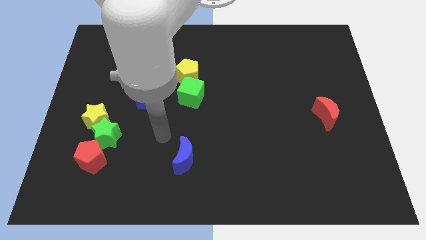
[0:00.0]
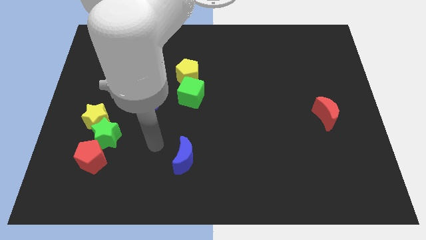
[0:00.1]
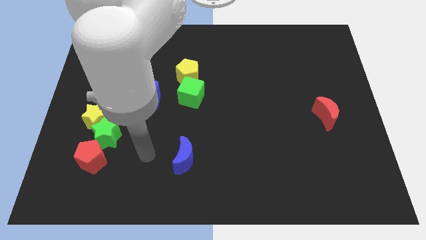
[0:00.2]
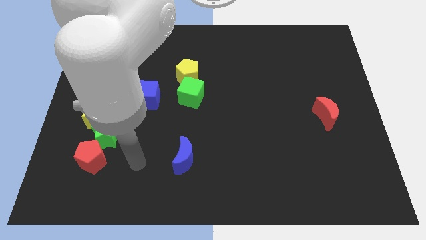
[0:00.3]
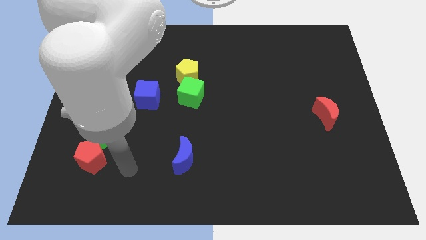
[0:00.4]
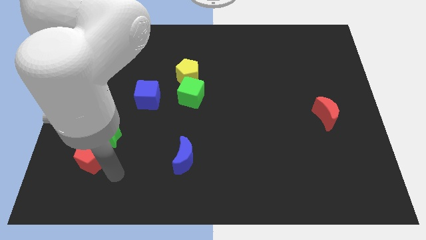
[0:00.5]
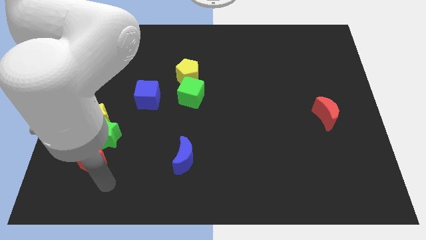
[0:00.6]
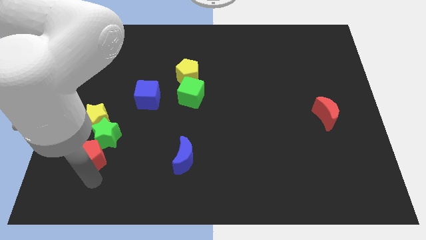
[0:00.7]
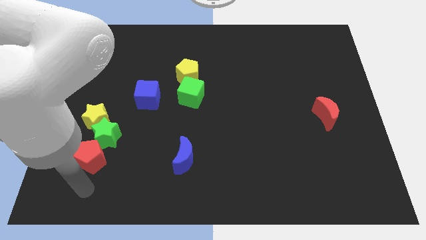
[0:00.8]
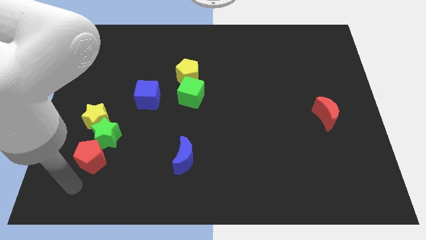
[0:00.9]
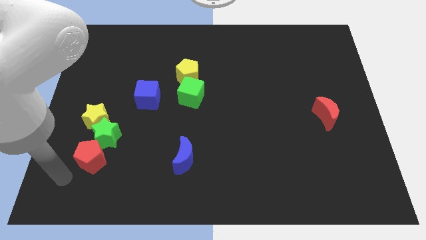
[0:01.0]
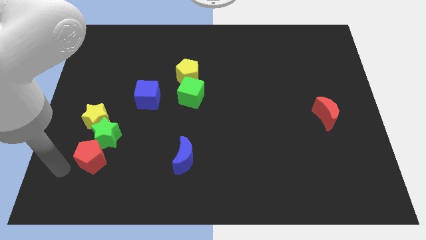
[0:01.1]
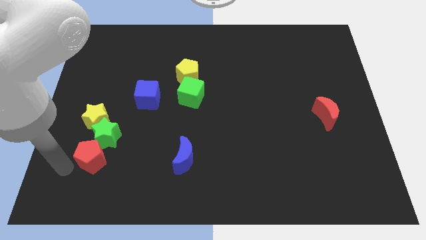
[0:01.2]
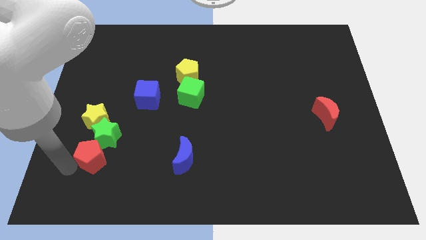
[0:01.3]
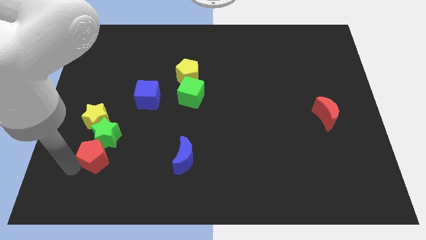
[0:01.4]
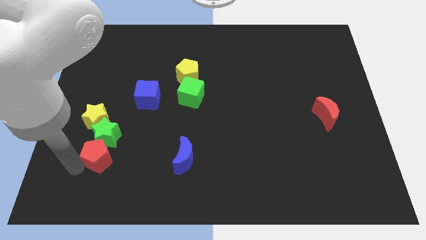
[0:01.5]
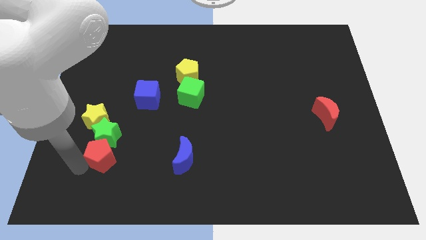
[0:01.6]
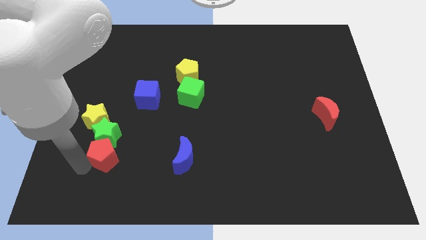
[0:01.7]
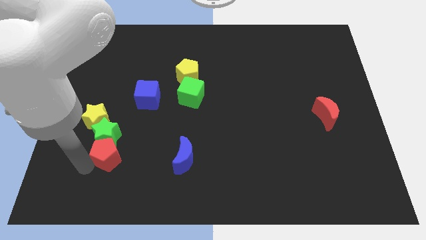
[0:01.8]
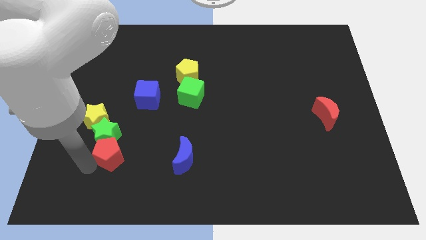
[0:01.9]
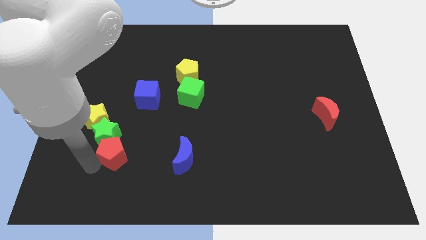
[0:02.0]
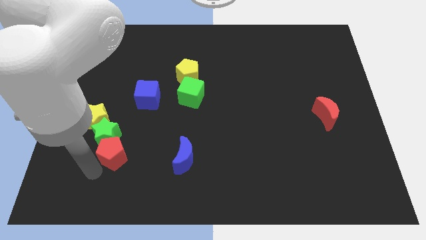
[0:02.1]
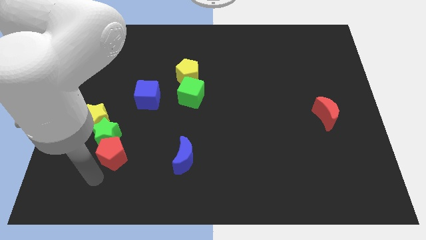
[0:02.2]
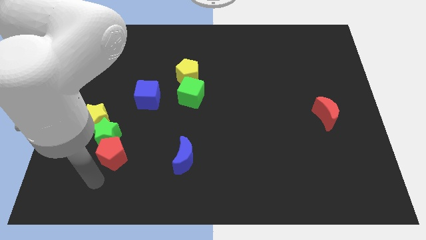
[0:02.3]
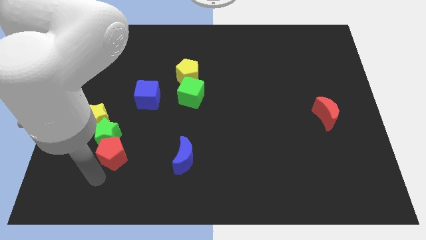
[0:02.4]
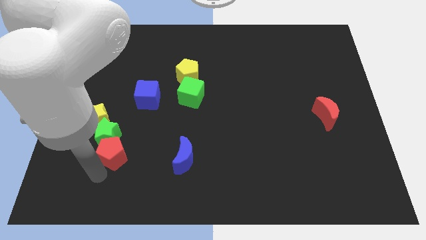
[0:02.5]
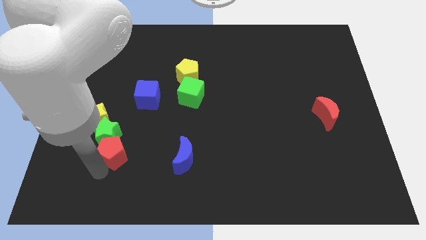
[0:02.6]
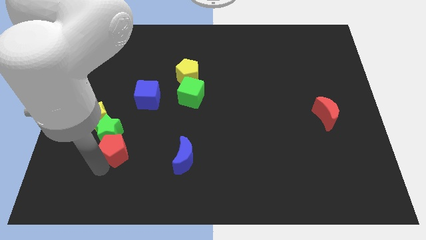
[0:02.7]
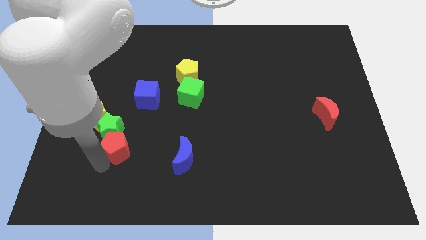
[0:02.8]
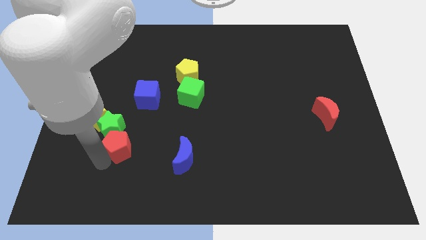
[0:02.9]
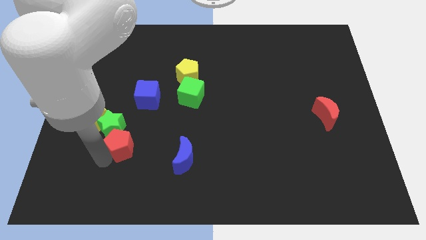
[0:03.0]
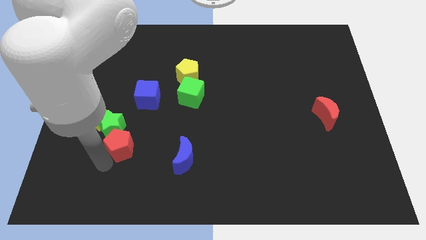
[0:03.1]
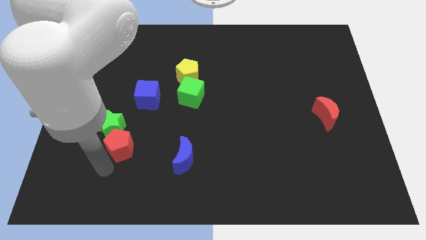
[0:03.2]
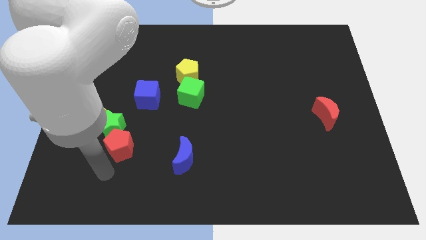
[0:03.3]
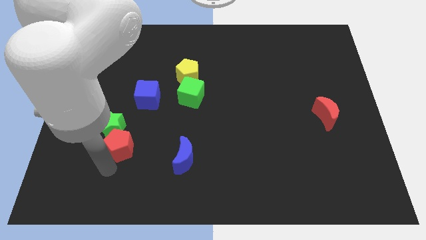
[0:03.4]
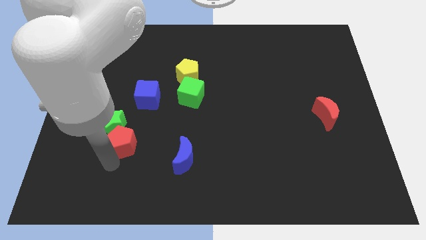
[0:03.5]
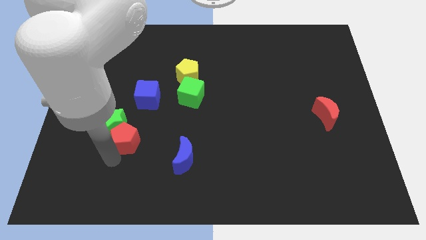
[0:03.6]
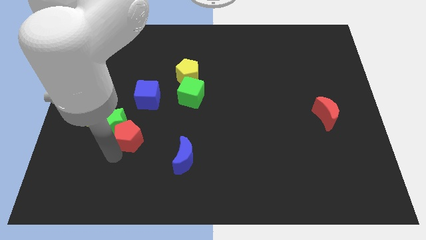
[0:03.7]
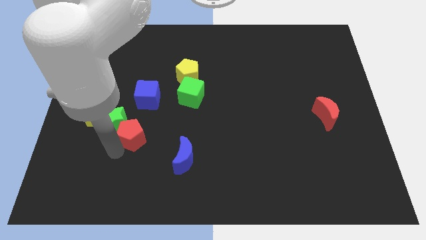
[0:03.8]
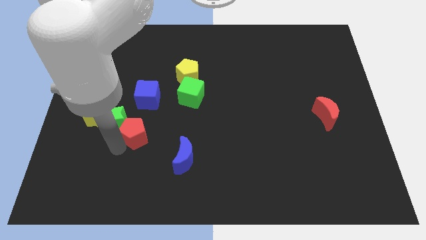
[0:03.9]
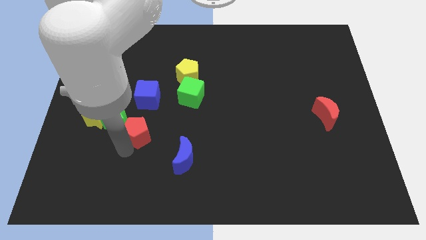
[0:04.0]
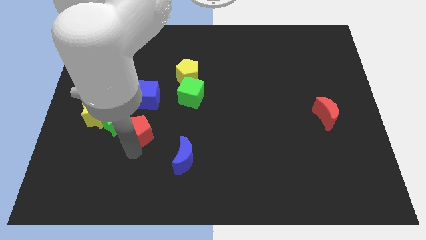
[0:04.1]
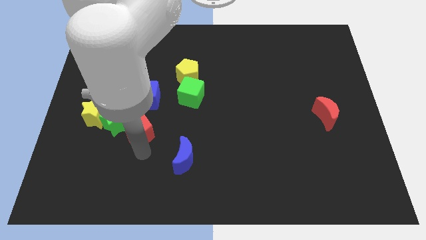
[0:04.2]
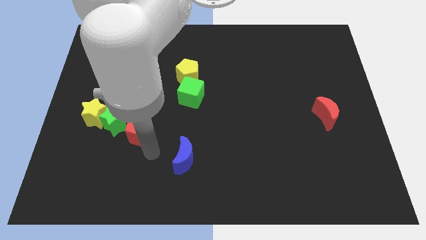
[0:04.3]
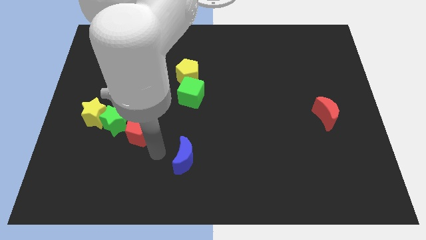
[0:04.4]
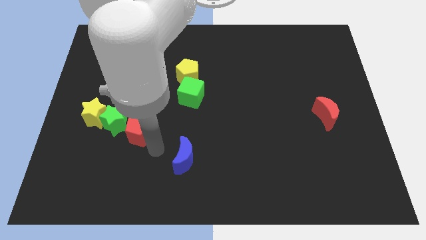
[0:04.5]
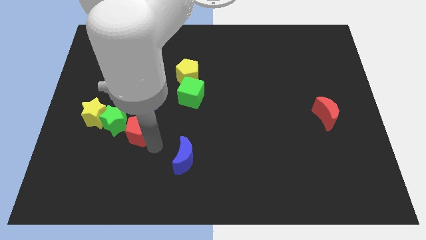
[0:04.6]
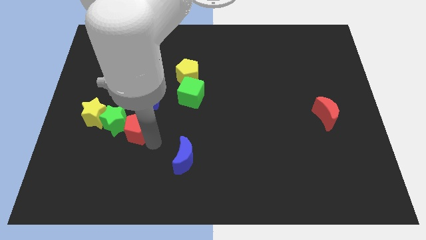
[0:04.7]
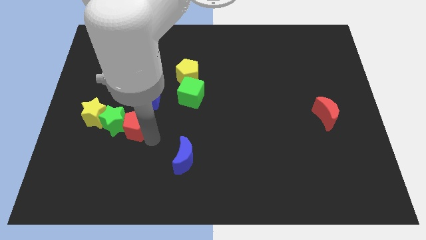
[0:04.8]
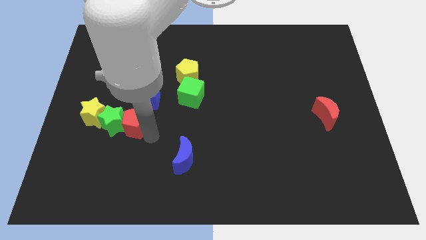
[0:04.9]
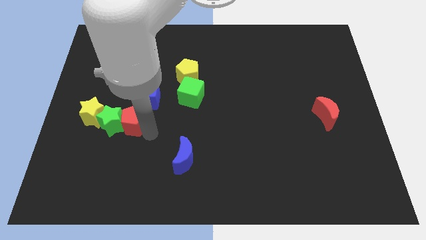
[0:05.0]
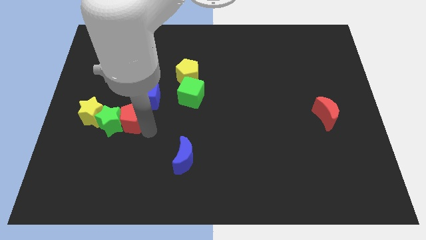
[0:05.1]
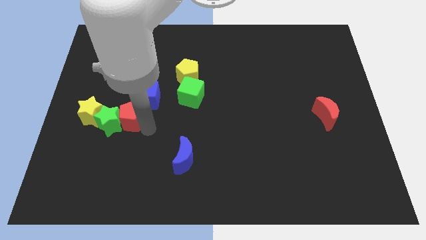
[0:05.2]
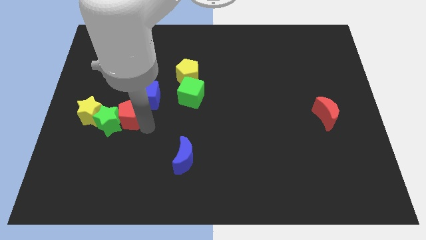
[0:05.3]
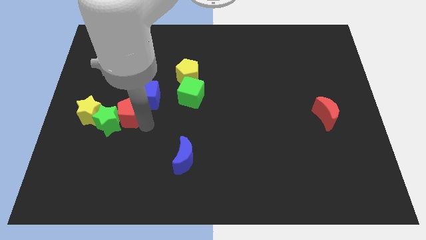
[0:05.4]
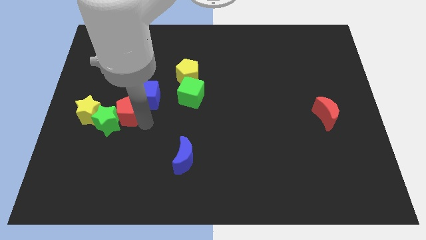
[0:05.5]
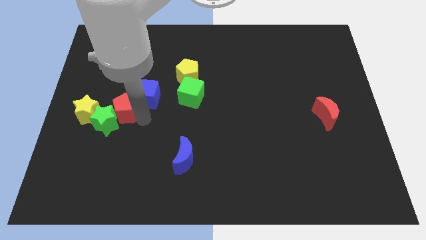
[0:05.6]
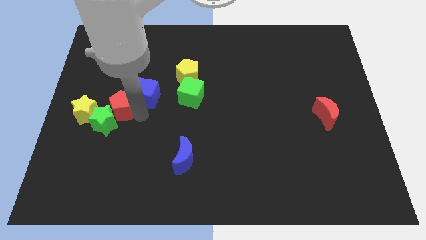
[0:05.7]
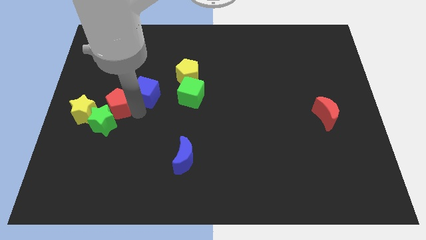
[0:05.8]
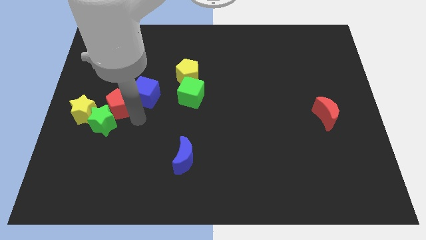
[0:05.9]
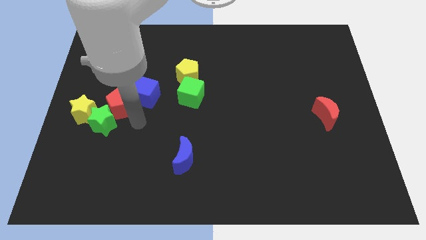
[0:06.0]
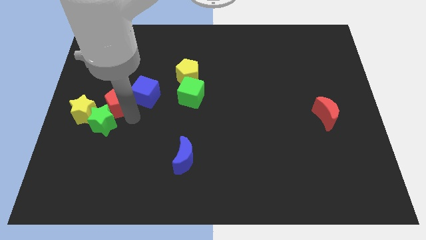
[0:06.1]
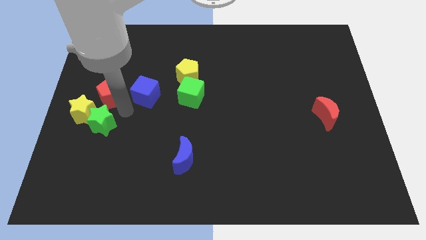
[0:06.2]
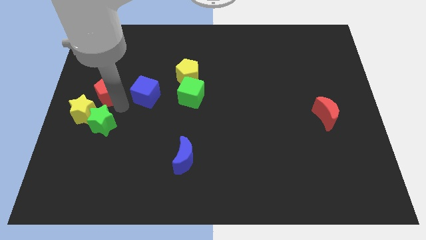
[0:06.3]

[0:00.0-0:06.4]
push the red pentagon to the top side of the yellow star
